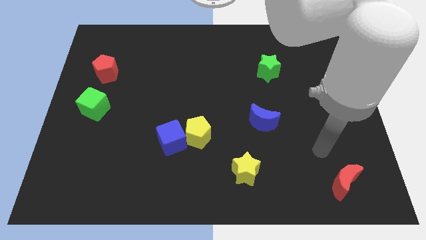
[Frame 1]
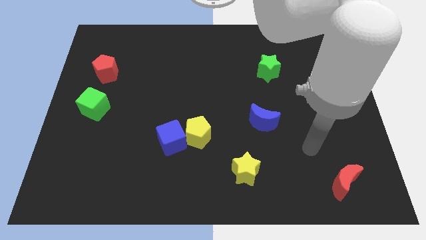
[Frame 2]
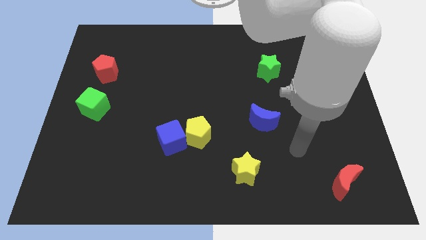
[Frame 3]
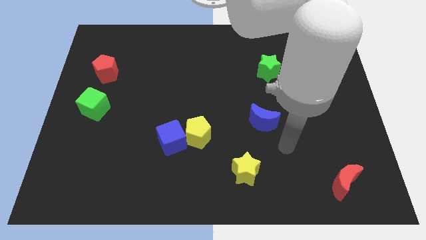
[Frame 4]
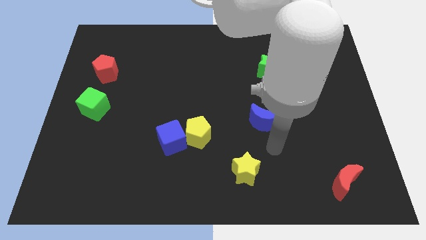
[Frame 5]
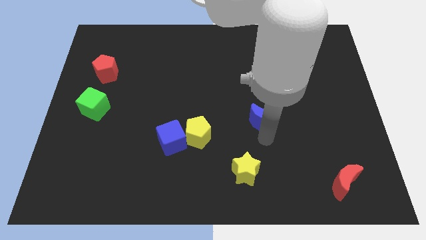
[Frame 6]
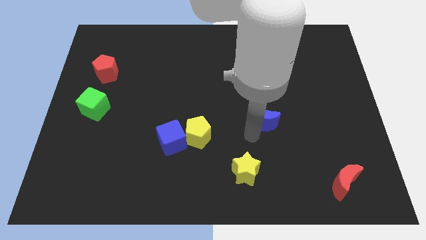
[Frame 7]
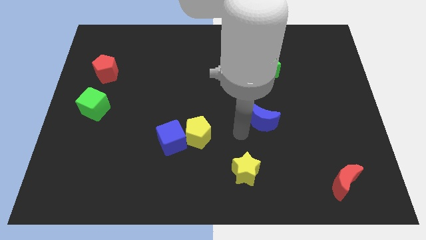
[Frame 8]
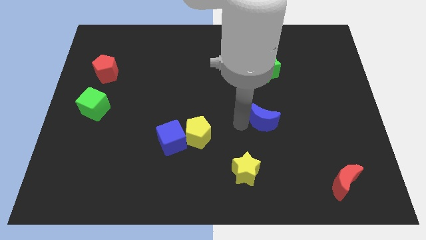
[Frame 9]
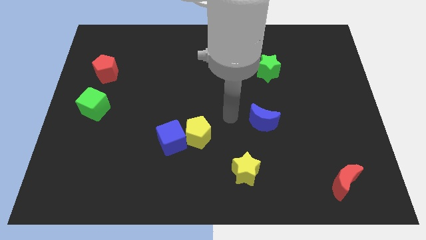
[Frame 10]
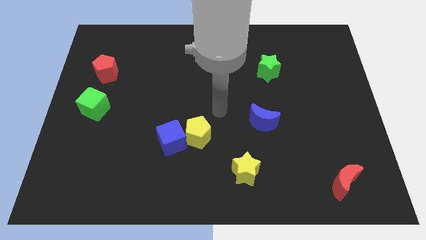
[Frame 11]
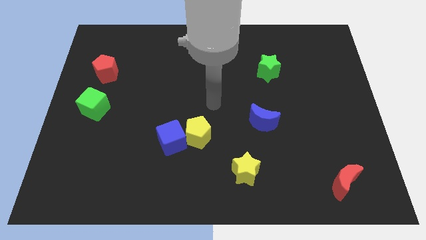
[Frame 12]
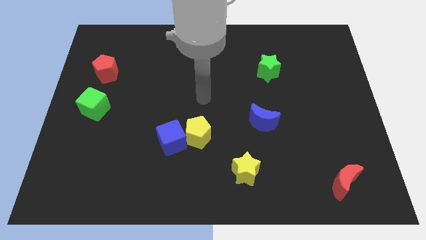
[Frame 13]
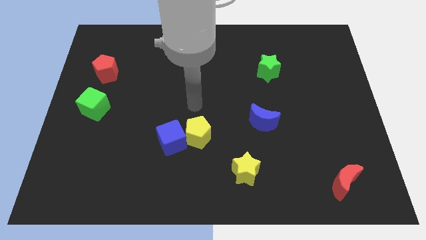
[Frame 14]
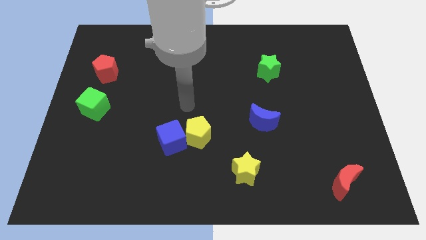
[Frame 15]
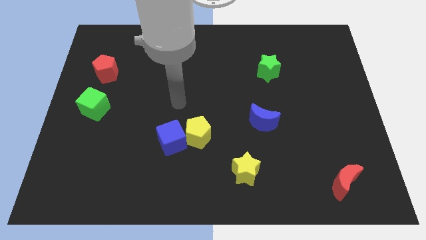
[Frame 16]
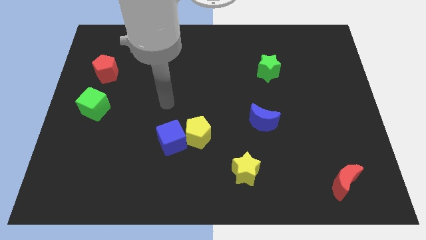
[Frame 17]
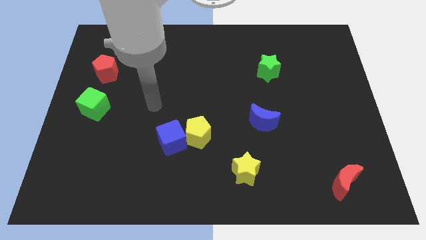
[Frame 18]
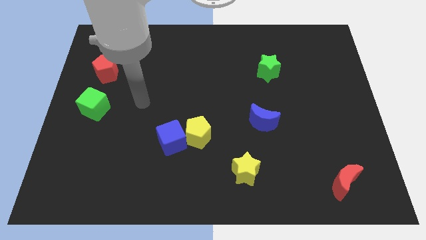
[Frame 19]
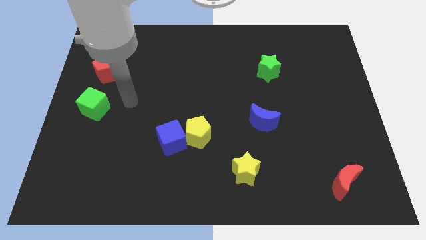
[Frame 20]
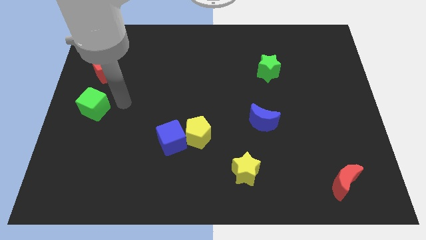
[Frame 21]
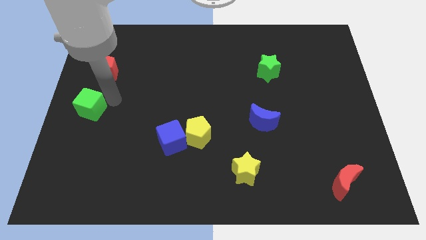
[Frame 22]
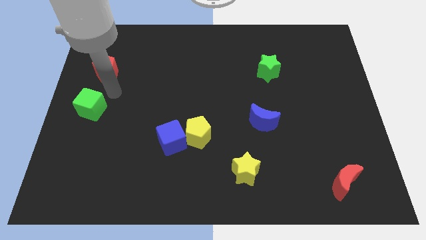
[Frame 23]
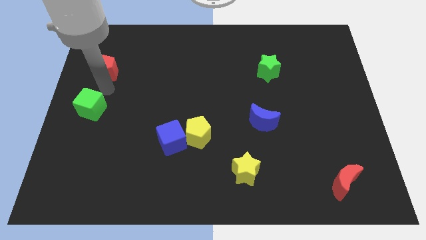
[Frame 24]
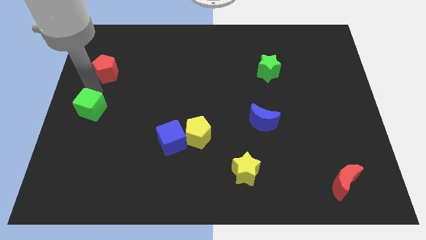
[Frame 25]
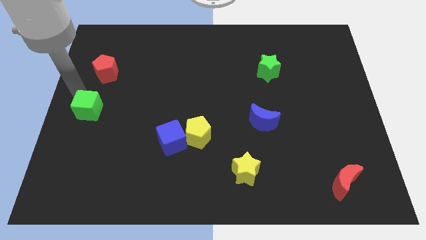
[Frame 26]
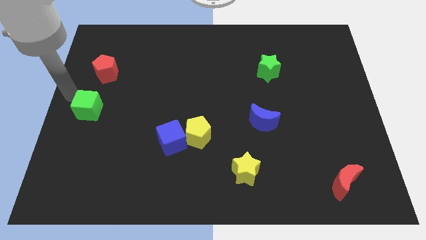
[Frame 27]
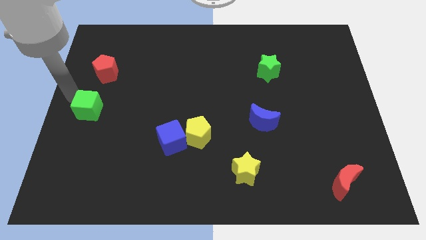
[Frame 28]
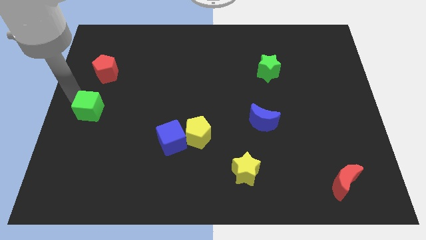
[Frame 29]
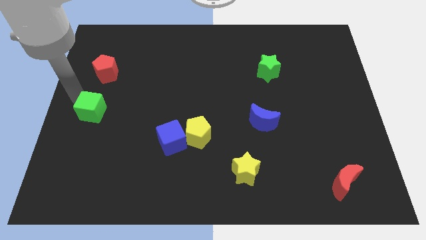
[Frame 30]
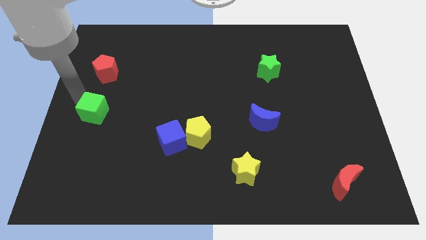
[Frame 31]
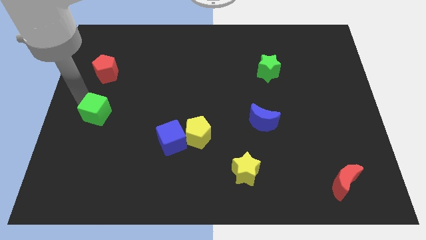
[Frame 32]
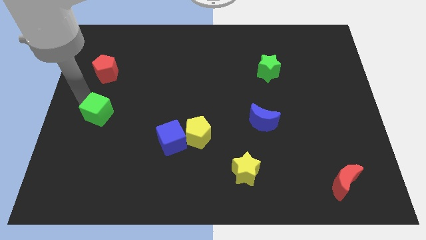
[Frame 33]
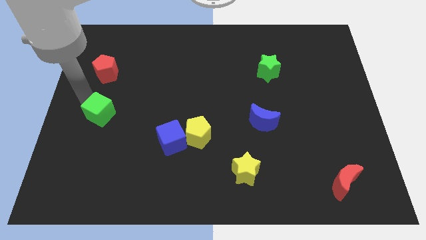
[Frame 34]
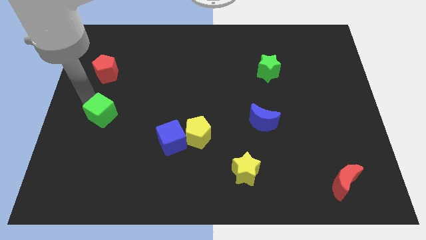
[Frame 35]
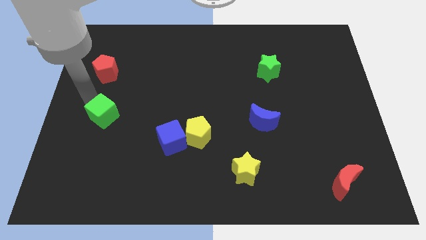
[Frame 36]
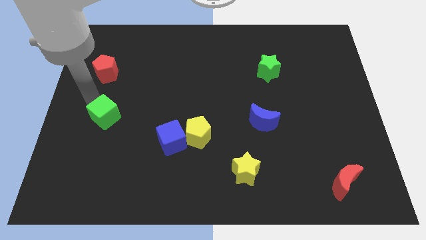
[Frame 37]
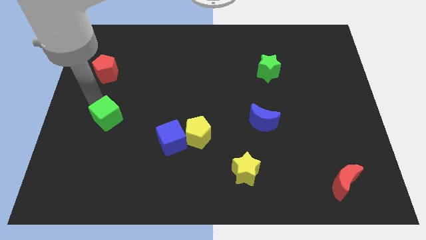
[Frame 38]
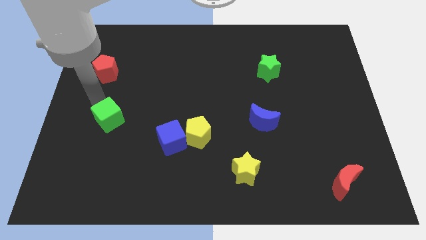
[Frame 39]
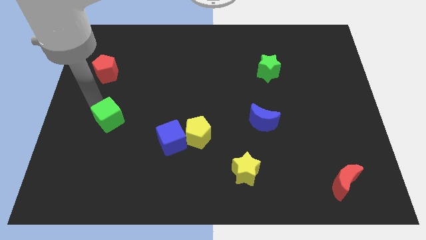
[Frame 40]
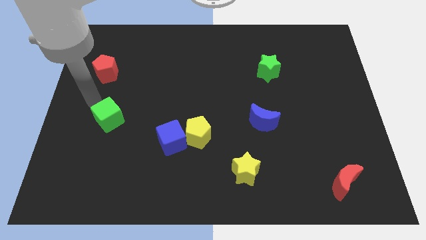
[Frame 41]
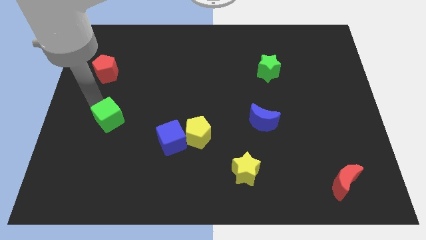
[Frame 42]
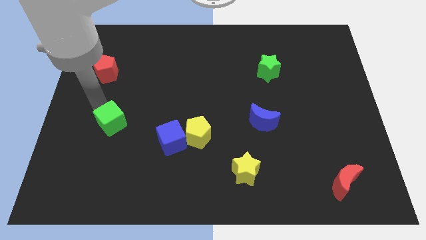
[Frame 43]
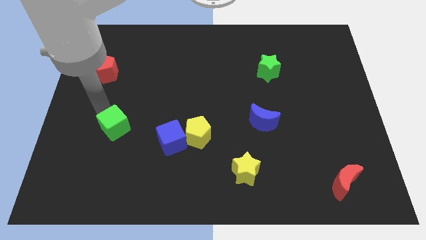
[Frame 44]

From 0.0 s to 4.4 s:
push the green cube down and to the right diagonally a little

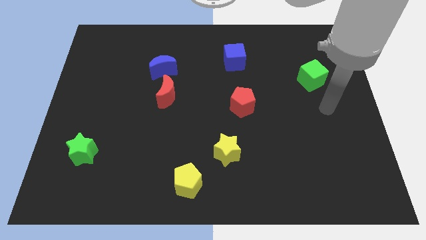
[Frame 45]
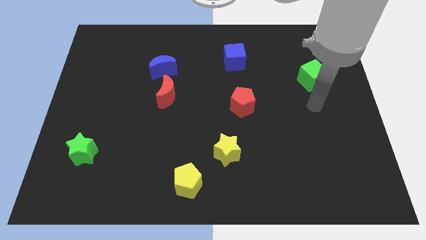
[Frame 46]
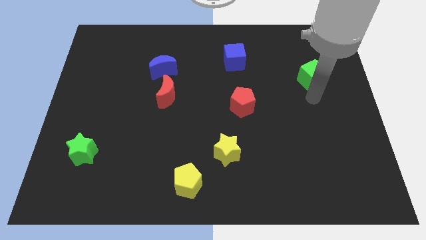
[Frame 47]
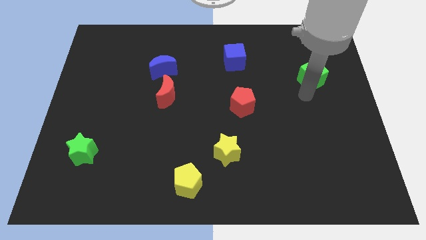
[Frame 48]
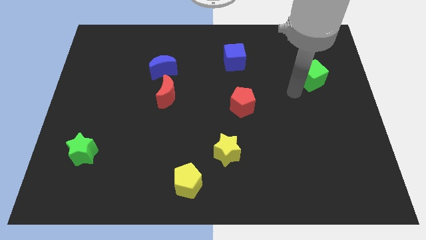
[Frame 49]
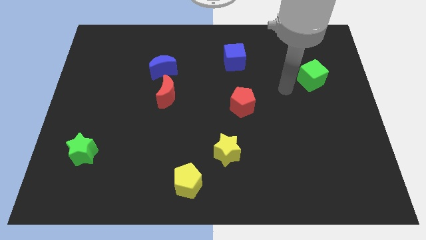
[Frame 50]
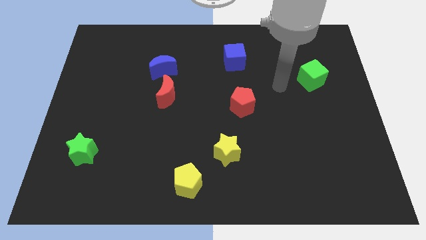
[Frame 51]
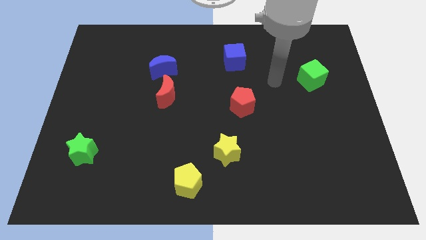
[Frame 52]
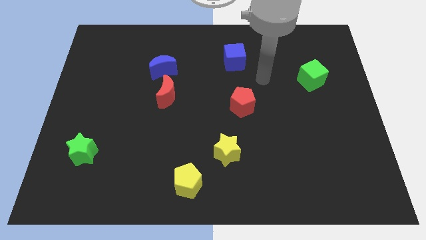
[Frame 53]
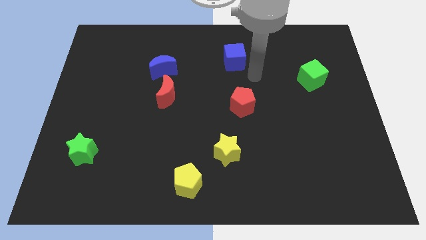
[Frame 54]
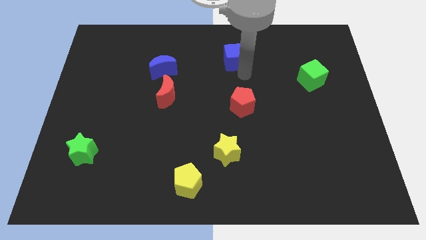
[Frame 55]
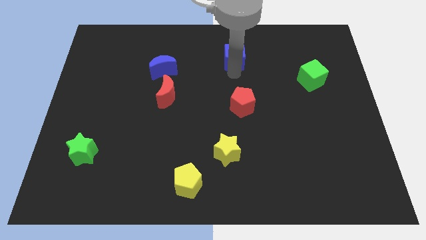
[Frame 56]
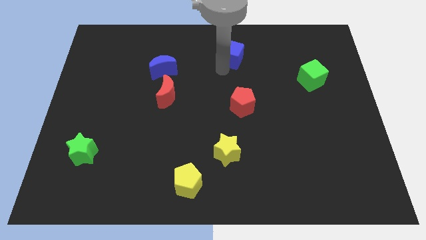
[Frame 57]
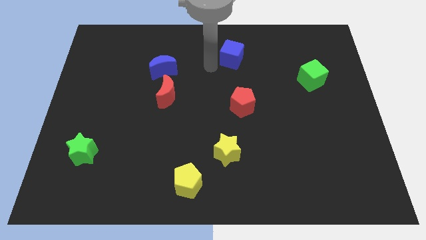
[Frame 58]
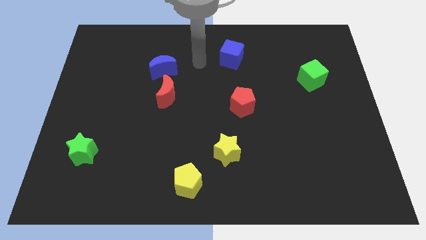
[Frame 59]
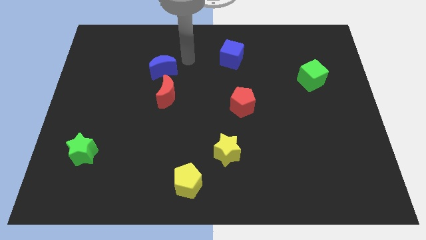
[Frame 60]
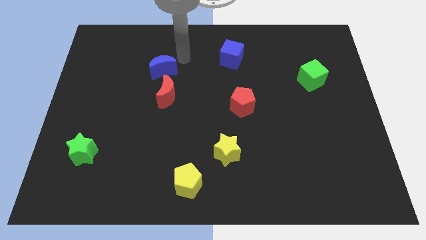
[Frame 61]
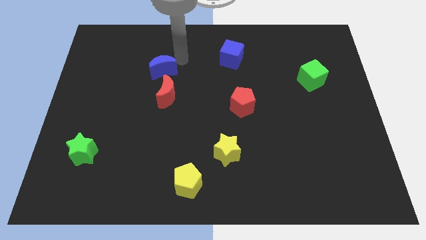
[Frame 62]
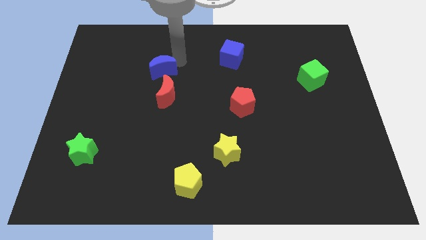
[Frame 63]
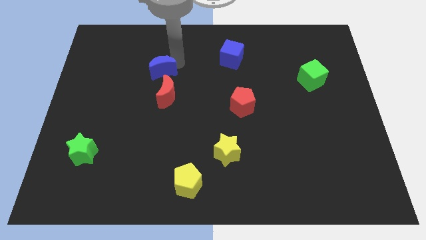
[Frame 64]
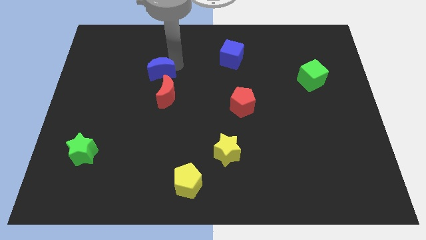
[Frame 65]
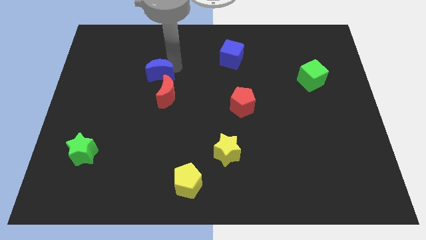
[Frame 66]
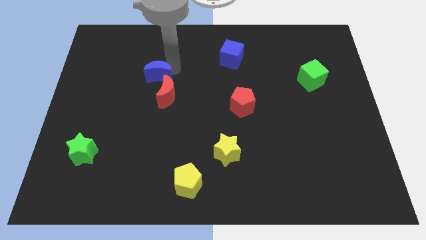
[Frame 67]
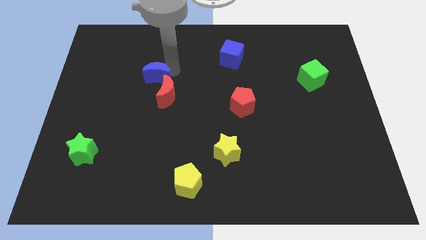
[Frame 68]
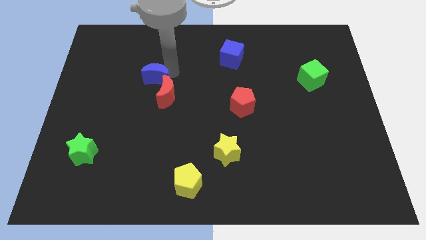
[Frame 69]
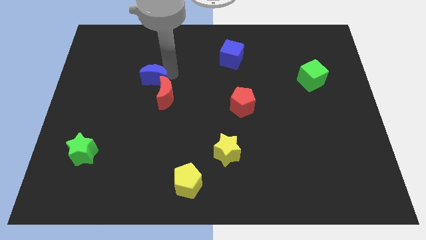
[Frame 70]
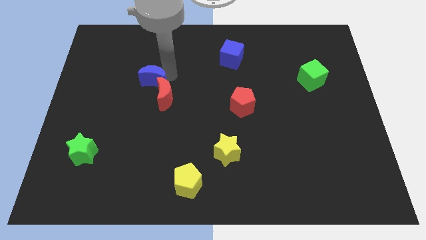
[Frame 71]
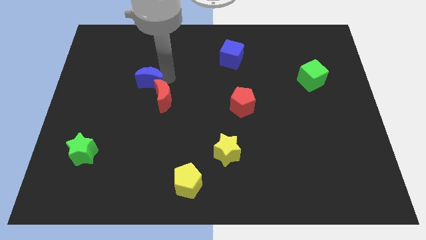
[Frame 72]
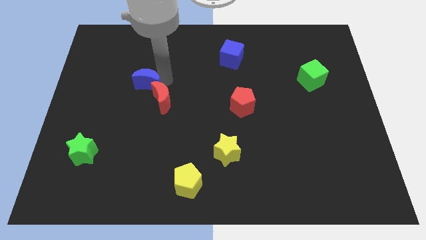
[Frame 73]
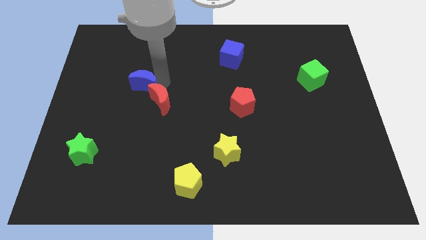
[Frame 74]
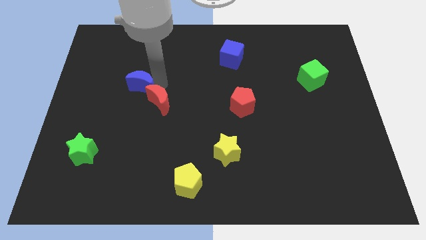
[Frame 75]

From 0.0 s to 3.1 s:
move the blue moon a bit downwards and to the left

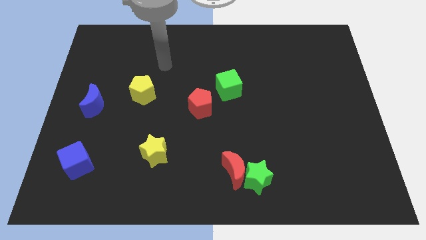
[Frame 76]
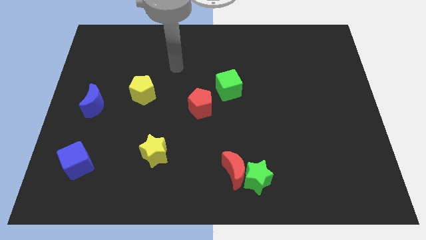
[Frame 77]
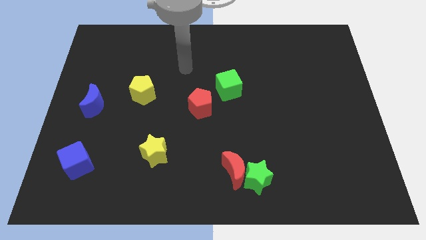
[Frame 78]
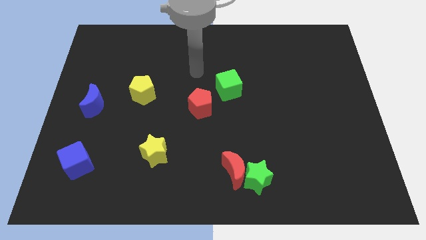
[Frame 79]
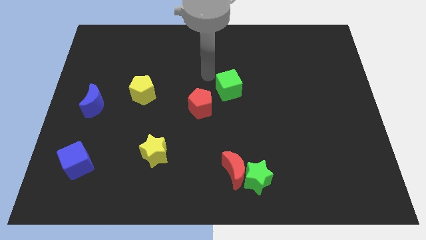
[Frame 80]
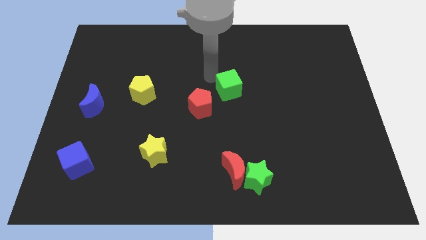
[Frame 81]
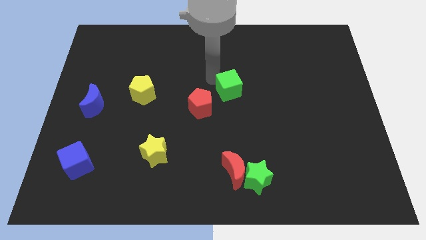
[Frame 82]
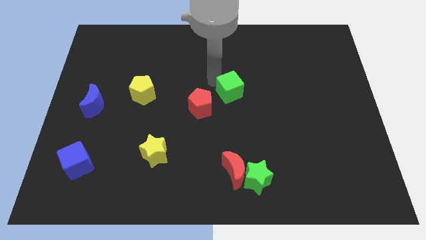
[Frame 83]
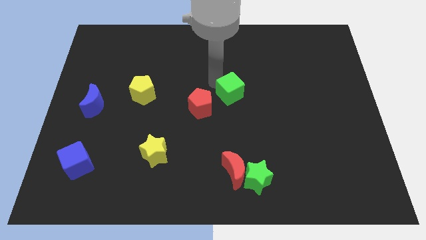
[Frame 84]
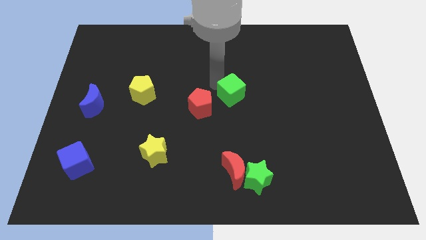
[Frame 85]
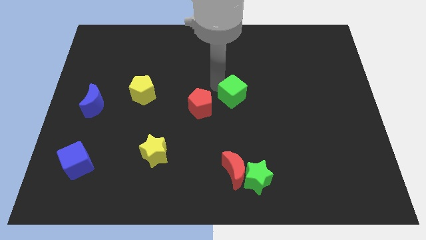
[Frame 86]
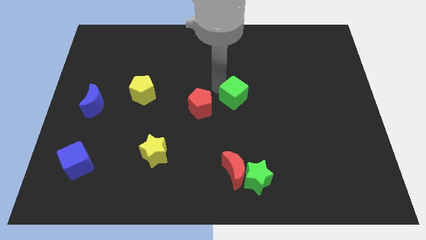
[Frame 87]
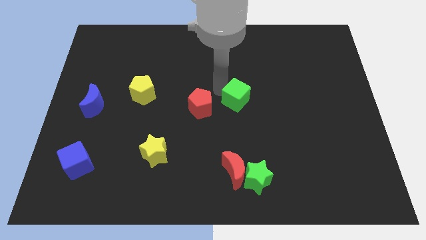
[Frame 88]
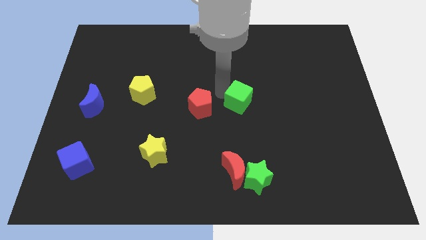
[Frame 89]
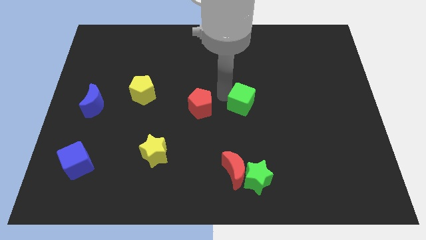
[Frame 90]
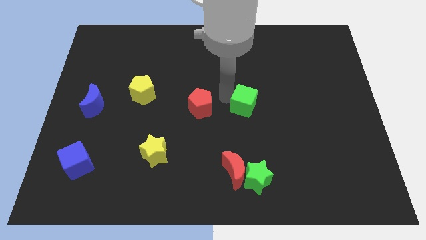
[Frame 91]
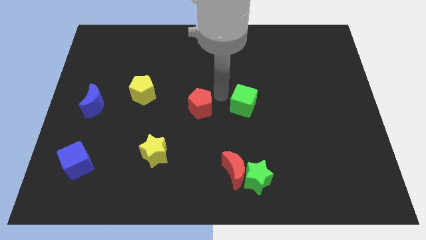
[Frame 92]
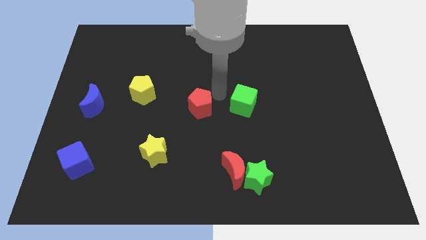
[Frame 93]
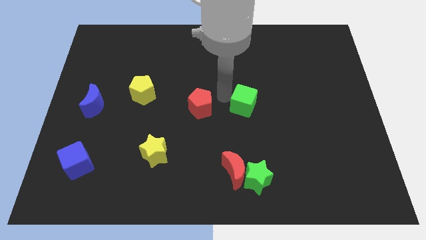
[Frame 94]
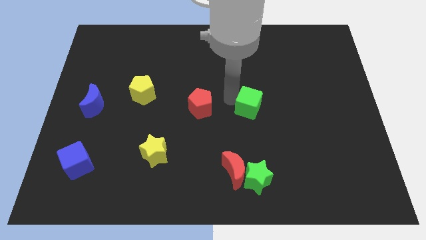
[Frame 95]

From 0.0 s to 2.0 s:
slightly slide the green cube down and then right
